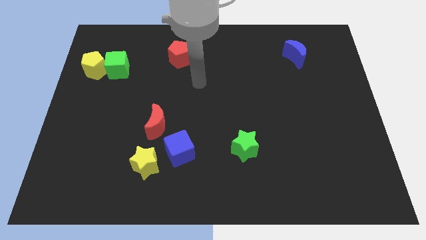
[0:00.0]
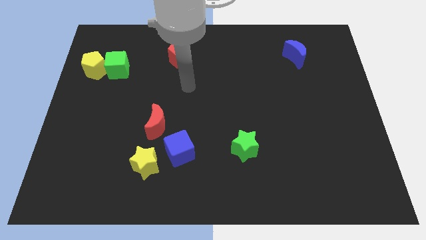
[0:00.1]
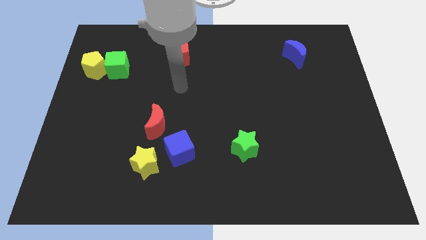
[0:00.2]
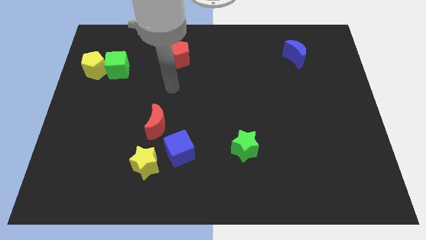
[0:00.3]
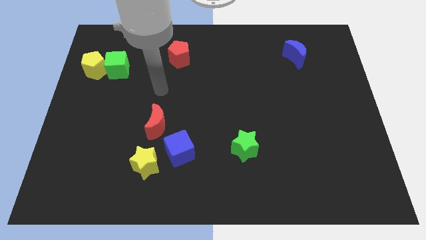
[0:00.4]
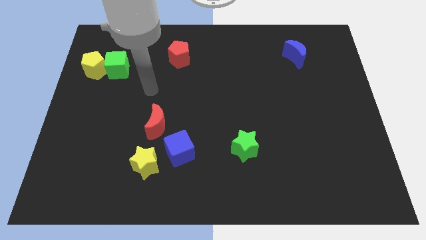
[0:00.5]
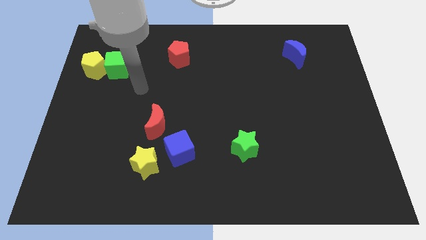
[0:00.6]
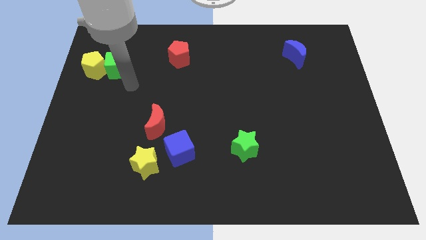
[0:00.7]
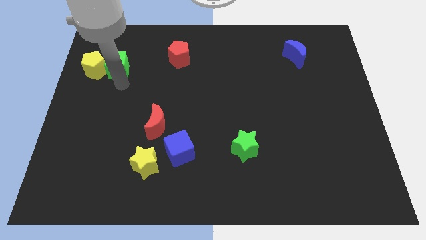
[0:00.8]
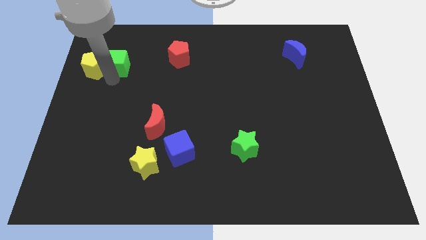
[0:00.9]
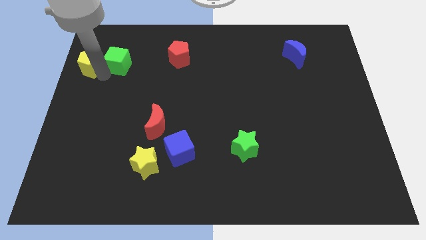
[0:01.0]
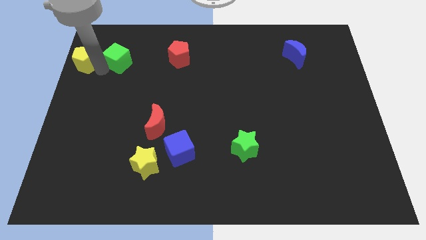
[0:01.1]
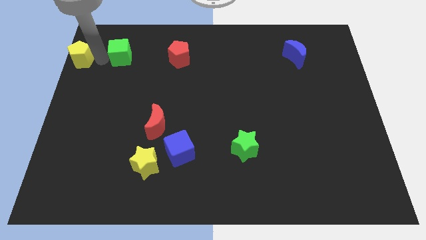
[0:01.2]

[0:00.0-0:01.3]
move the green cube away from the yellow pentagon

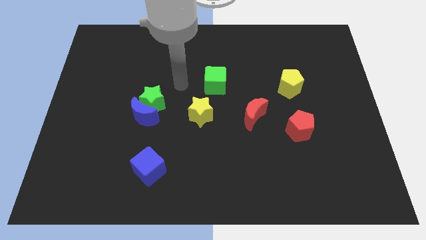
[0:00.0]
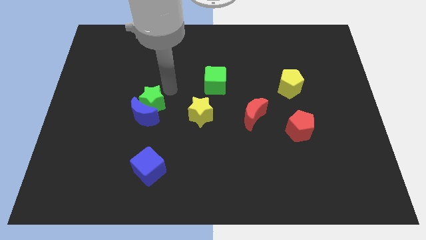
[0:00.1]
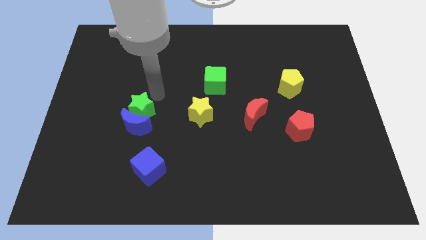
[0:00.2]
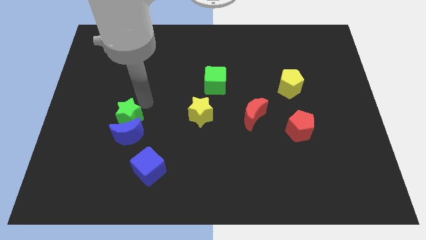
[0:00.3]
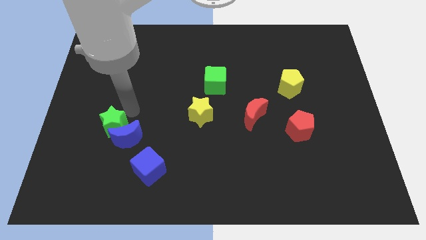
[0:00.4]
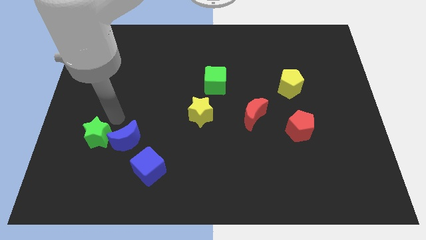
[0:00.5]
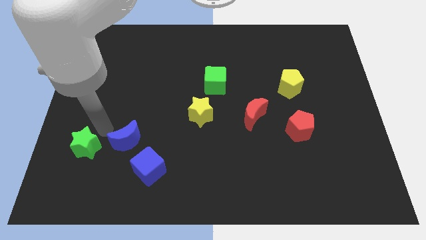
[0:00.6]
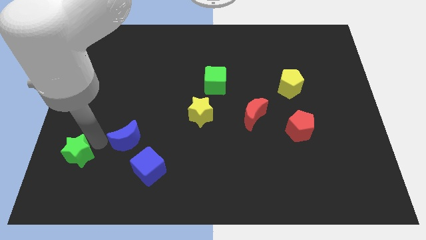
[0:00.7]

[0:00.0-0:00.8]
separate the blue moon from the green star

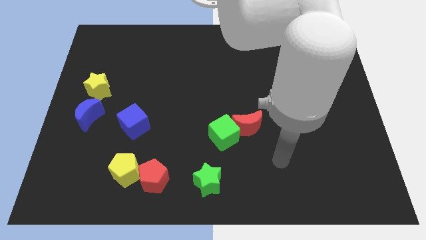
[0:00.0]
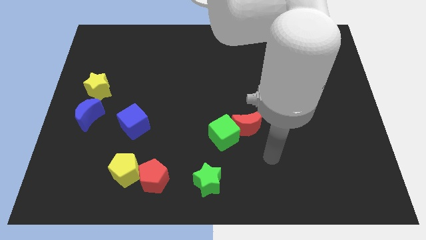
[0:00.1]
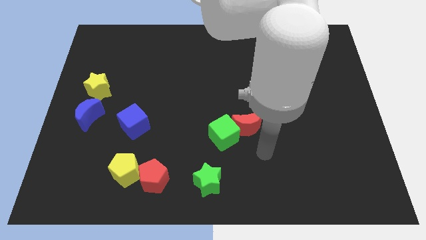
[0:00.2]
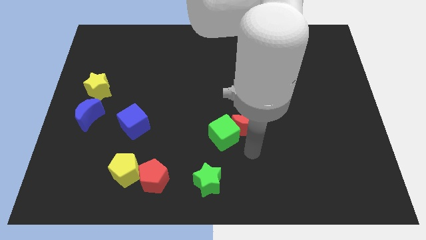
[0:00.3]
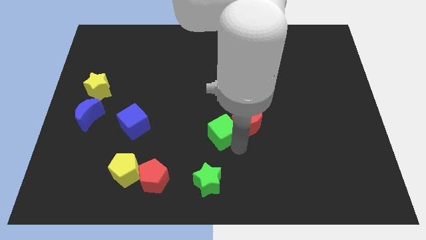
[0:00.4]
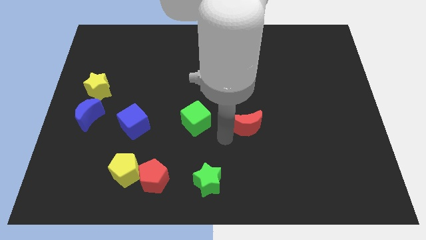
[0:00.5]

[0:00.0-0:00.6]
pull the red moon apart from the green cube

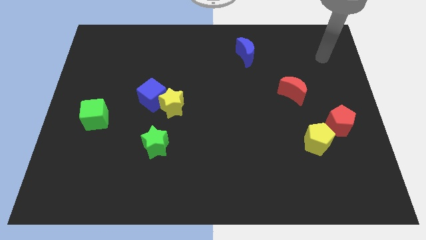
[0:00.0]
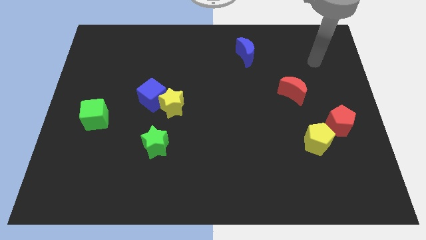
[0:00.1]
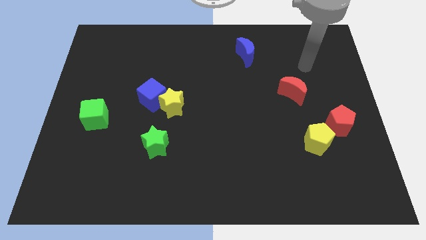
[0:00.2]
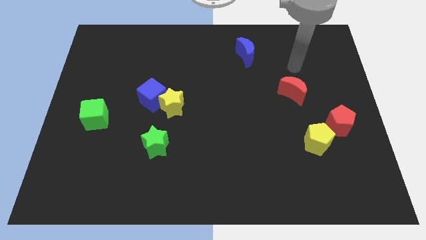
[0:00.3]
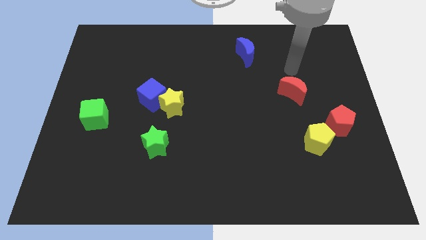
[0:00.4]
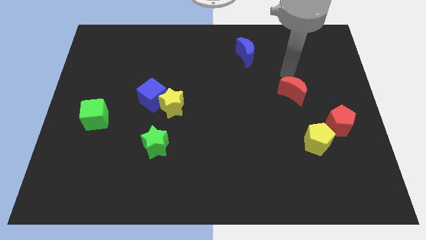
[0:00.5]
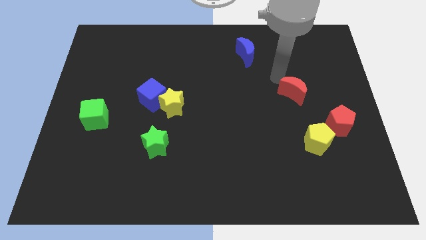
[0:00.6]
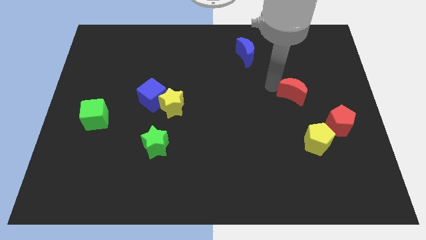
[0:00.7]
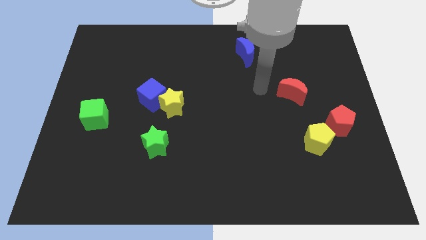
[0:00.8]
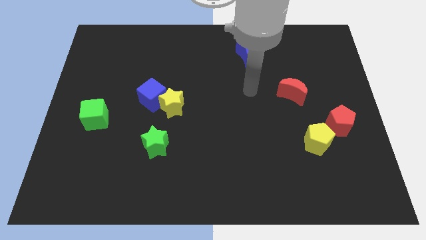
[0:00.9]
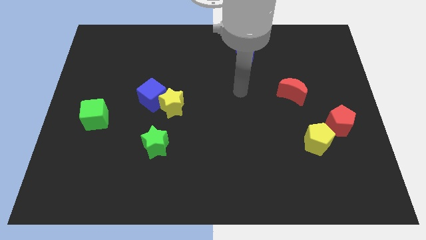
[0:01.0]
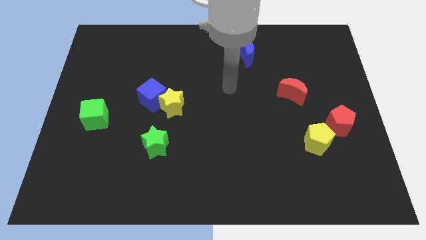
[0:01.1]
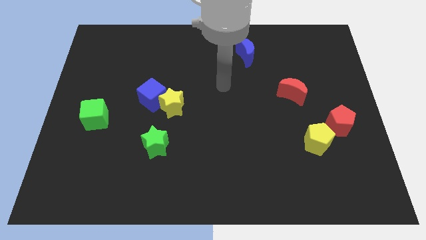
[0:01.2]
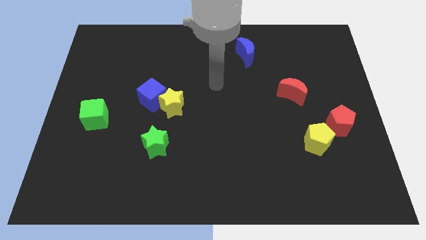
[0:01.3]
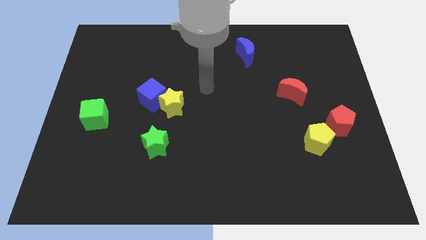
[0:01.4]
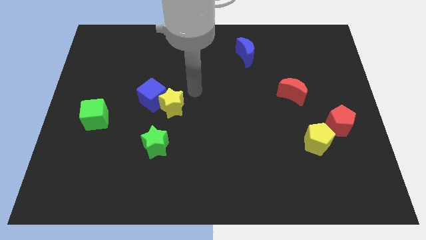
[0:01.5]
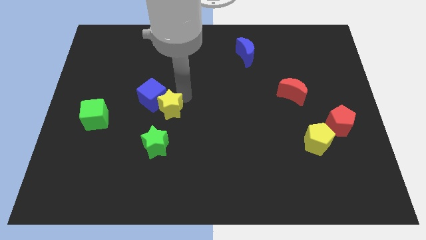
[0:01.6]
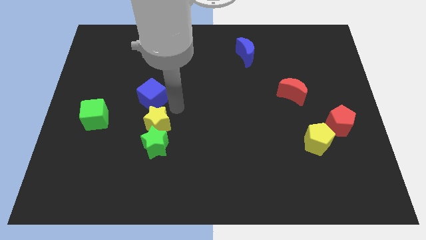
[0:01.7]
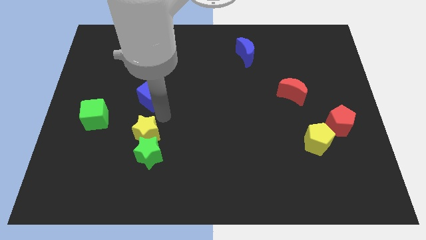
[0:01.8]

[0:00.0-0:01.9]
separate the blue cube from the yellow star

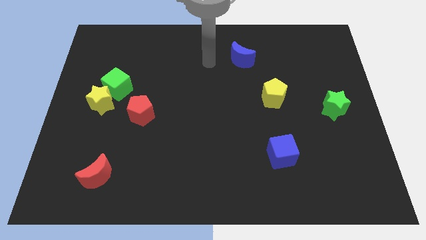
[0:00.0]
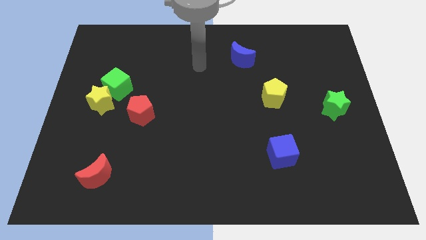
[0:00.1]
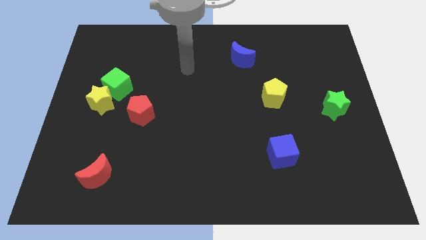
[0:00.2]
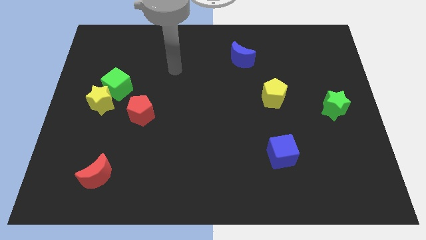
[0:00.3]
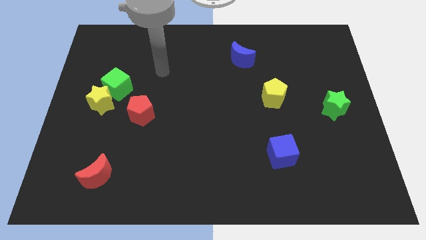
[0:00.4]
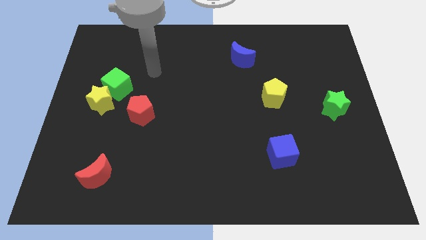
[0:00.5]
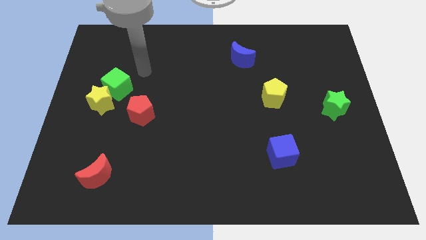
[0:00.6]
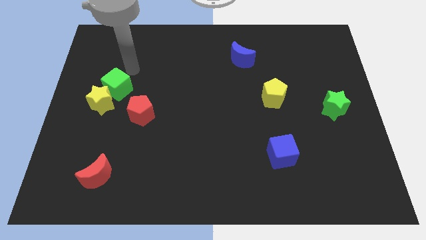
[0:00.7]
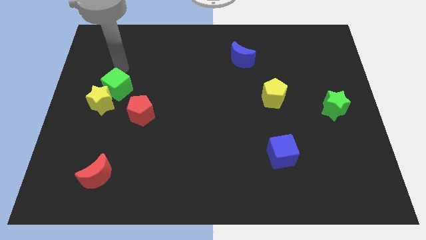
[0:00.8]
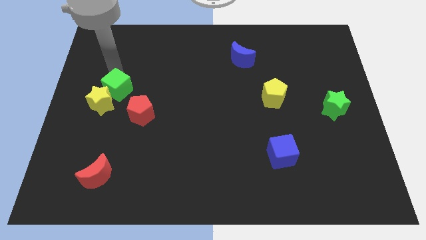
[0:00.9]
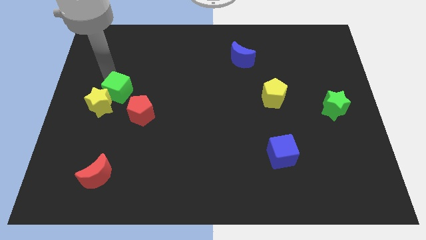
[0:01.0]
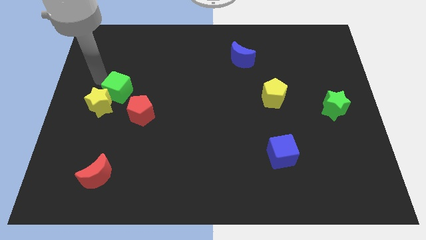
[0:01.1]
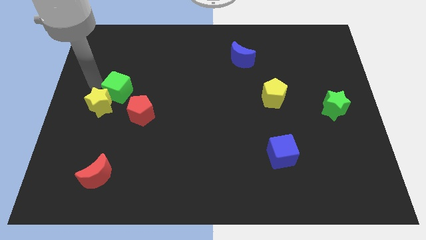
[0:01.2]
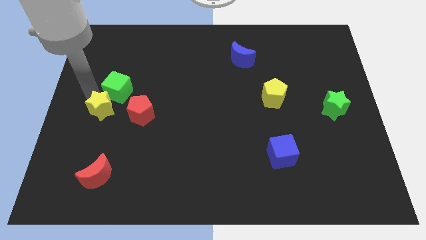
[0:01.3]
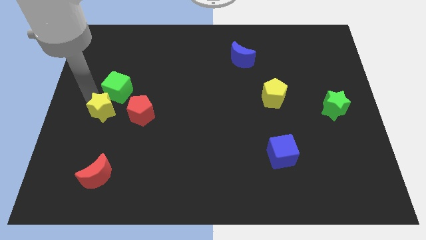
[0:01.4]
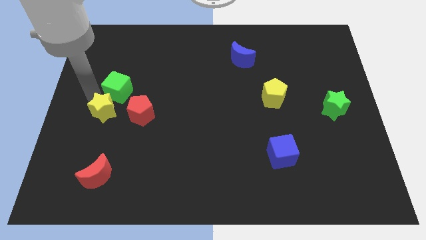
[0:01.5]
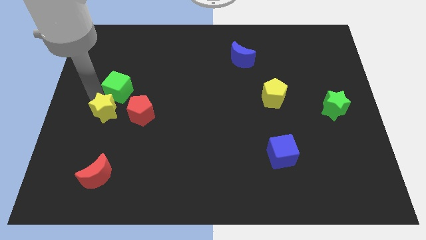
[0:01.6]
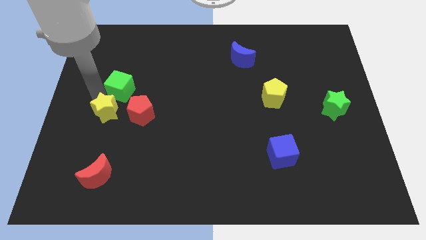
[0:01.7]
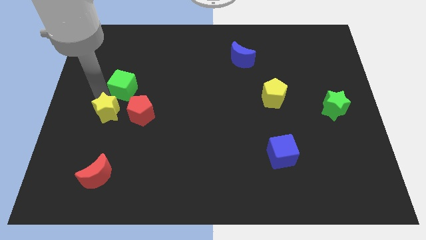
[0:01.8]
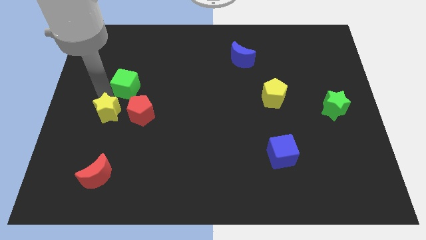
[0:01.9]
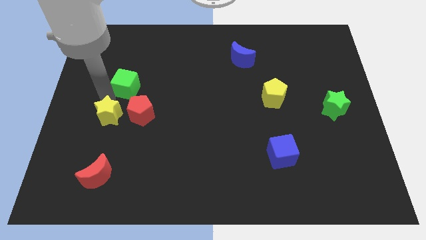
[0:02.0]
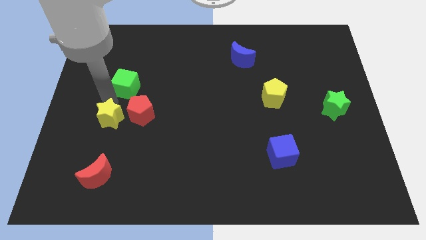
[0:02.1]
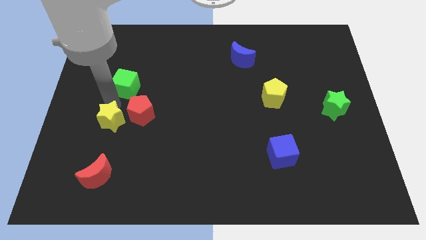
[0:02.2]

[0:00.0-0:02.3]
separate the green cube from the yellow star

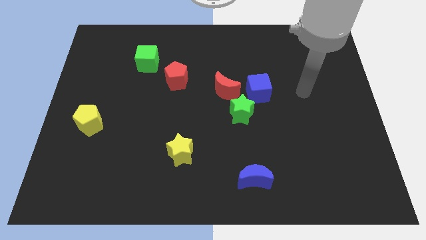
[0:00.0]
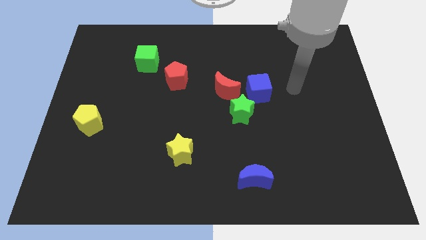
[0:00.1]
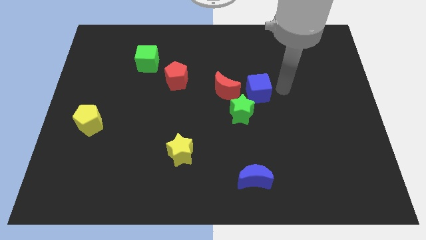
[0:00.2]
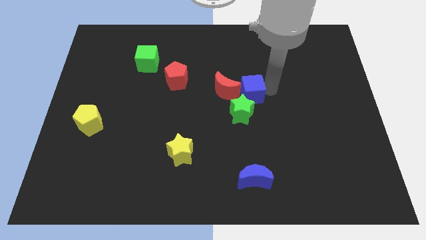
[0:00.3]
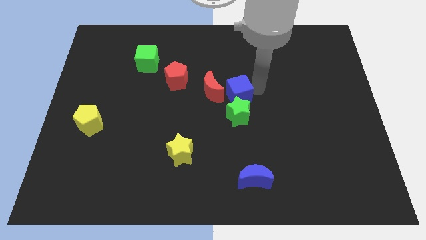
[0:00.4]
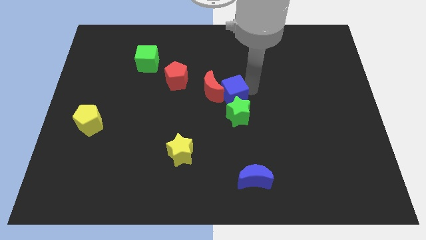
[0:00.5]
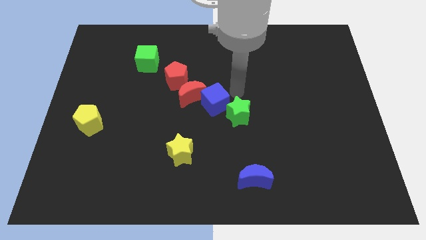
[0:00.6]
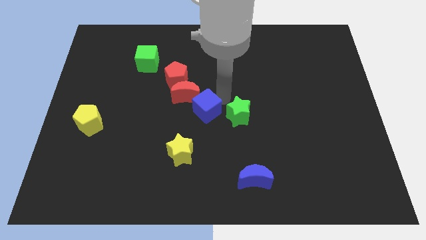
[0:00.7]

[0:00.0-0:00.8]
move the green star away from the red moon and blue cube

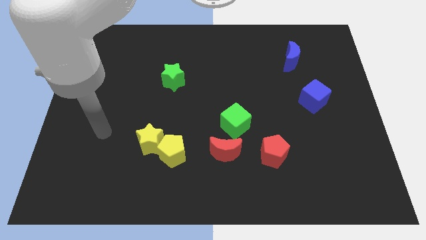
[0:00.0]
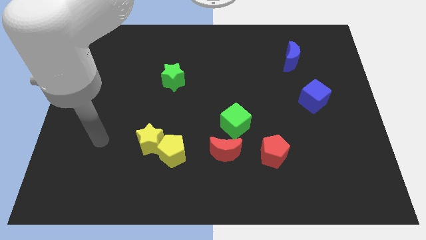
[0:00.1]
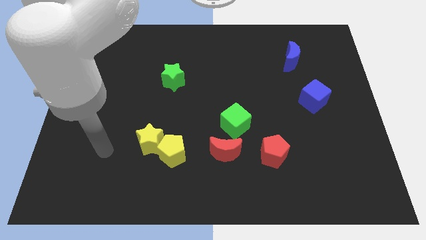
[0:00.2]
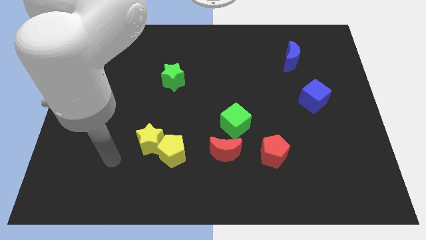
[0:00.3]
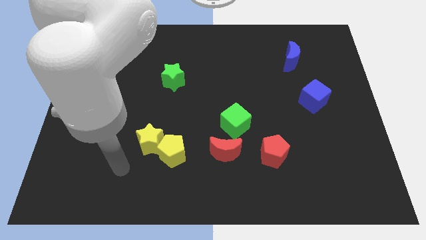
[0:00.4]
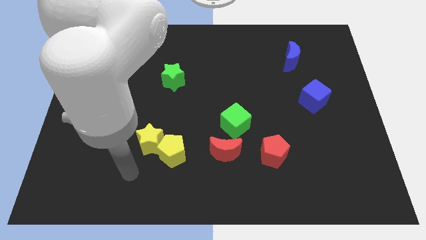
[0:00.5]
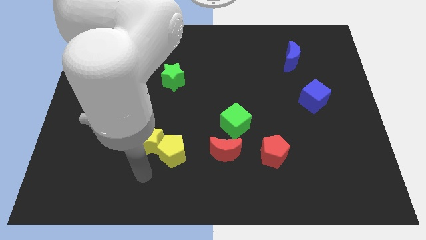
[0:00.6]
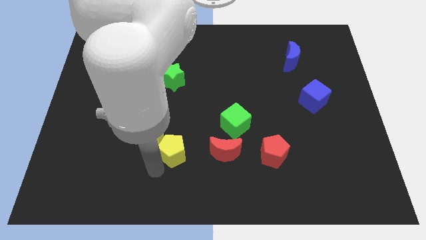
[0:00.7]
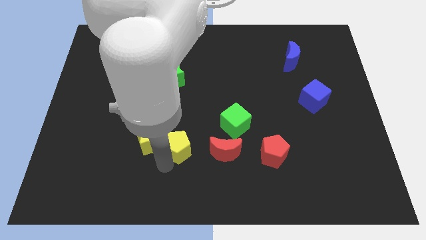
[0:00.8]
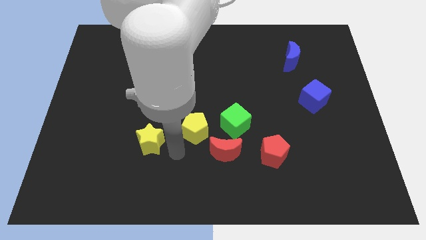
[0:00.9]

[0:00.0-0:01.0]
pull the yellow star apart from the yellow pentagon

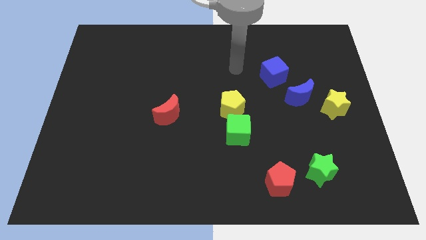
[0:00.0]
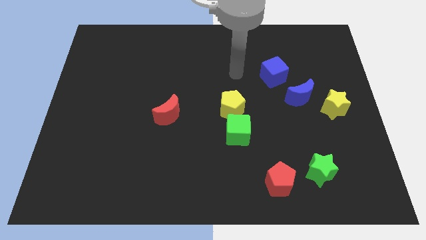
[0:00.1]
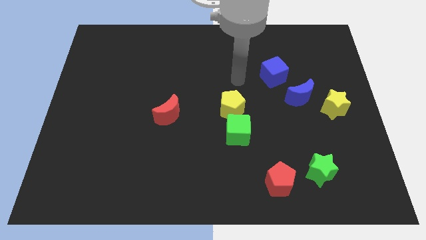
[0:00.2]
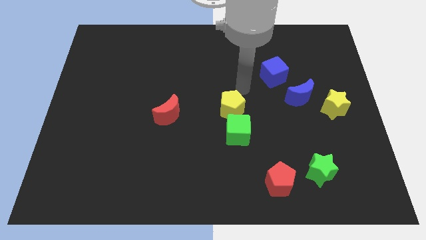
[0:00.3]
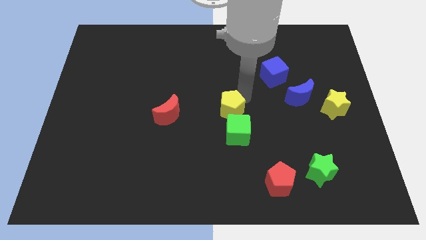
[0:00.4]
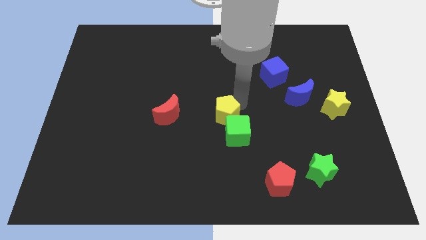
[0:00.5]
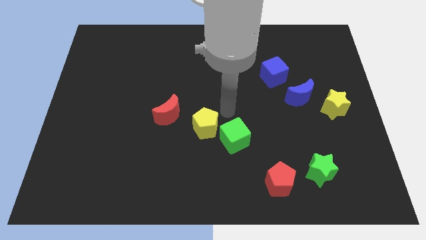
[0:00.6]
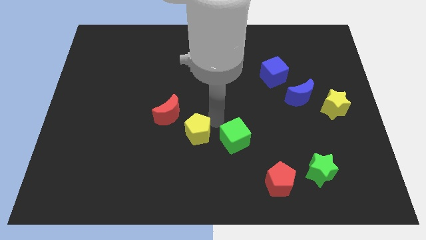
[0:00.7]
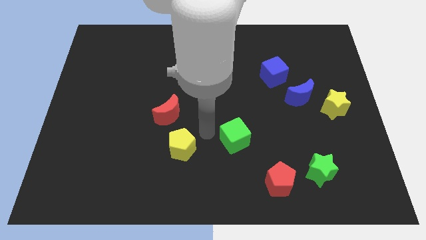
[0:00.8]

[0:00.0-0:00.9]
separate the green cube from the yellow pentagon
